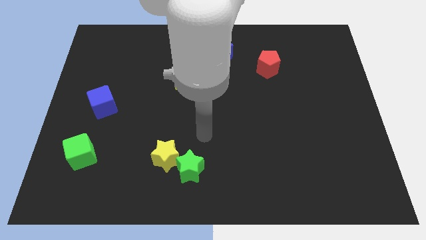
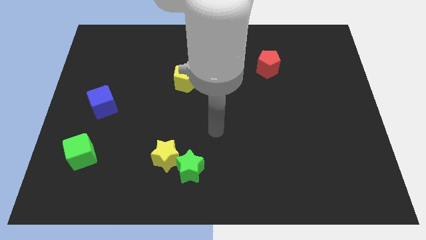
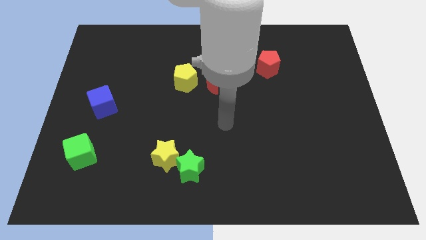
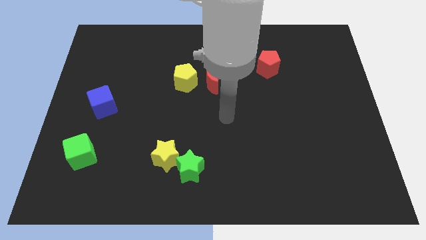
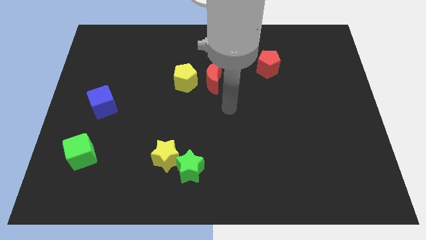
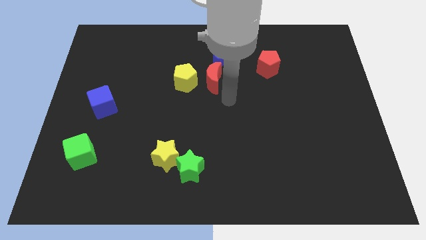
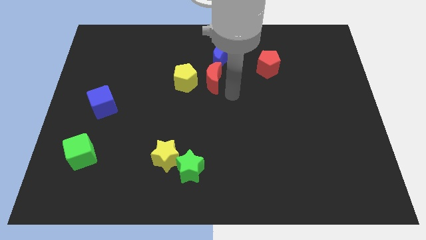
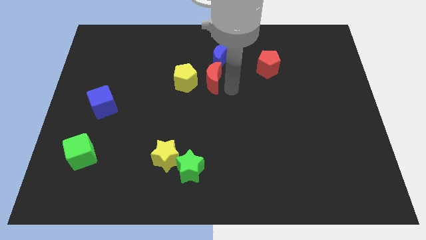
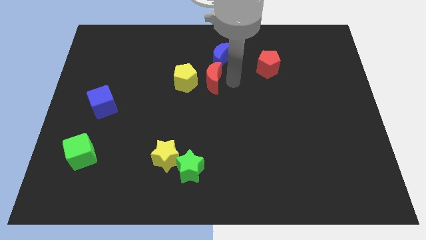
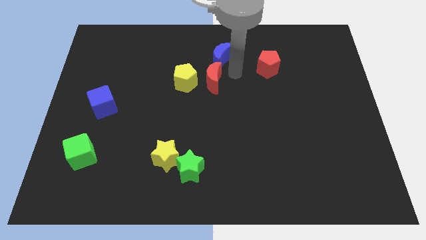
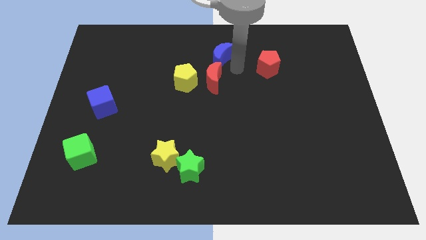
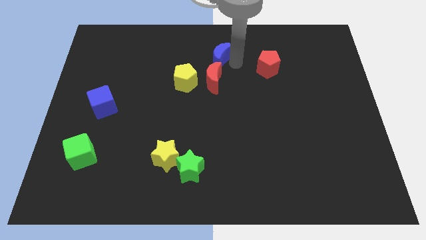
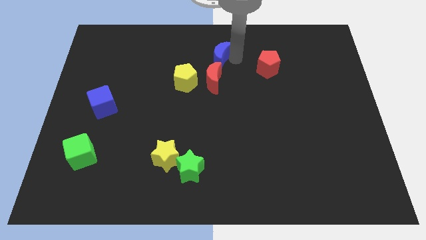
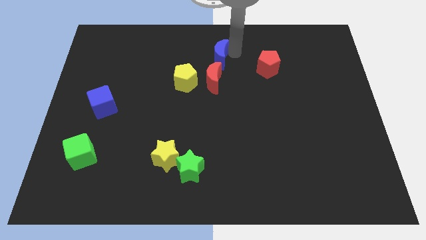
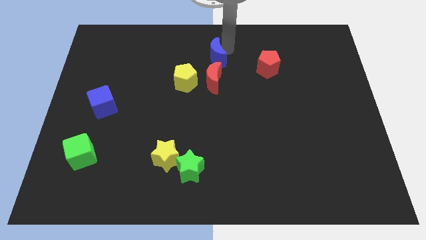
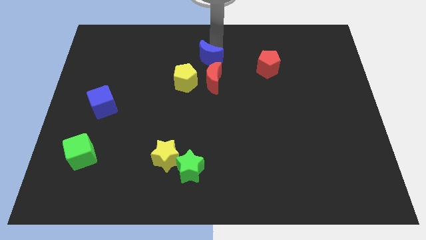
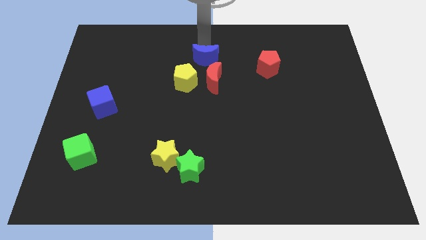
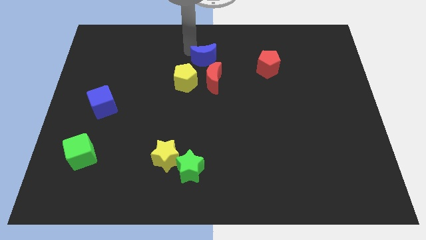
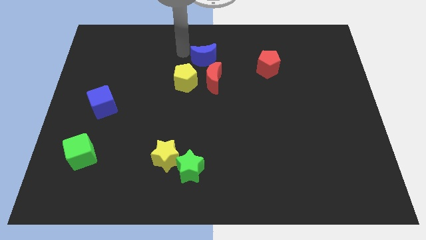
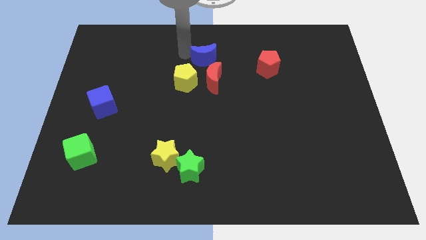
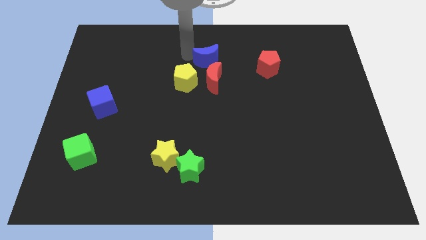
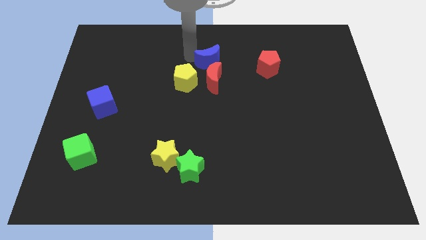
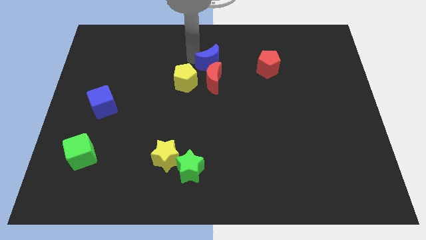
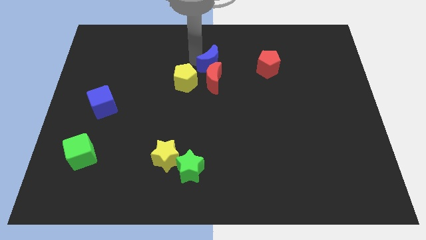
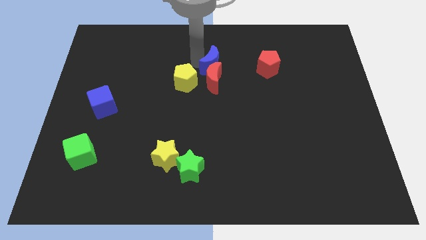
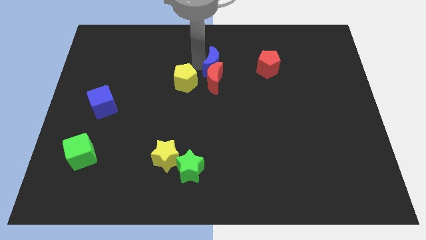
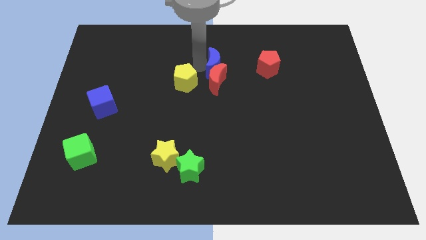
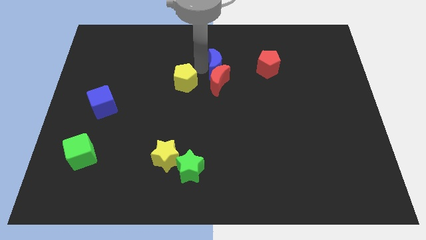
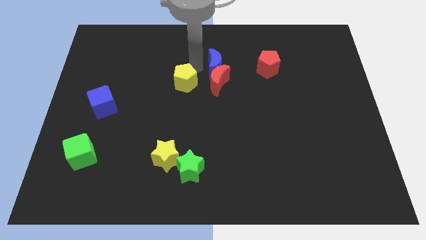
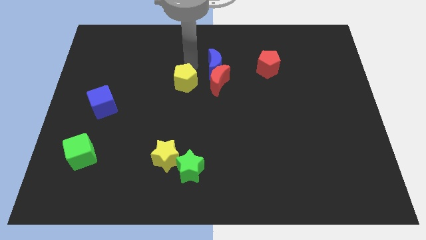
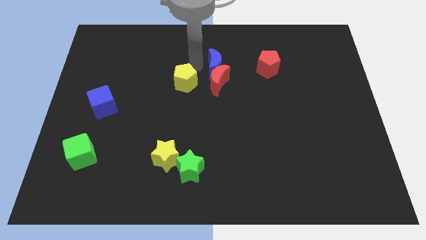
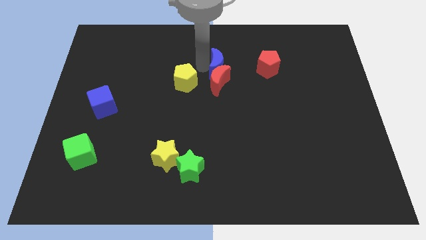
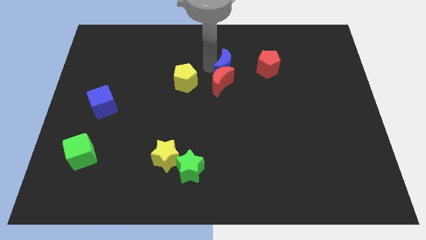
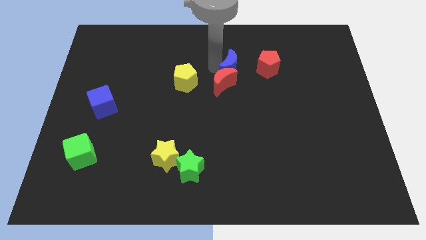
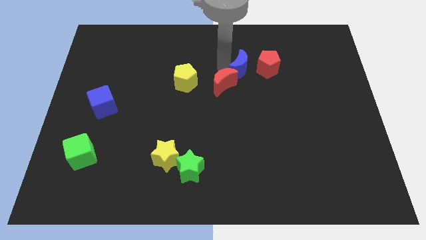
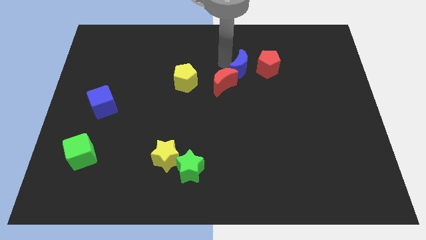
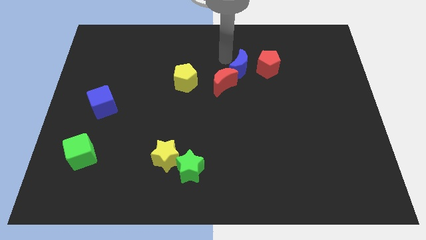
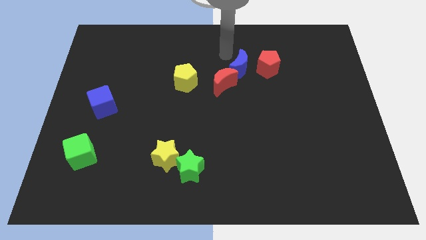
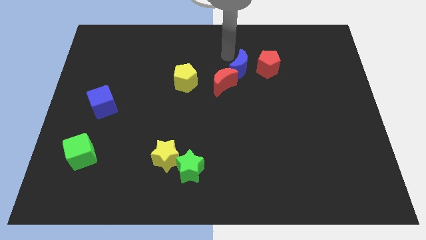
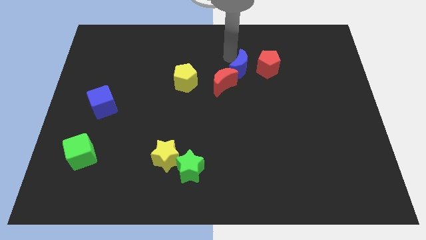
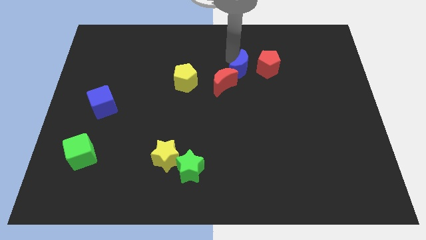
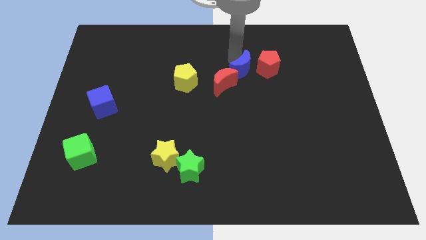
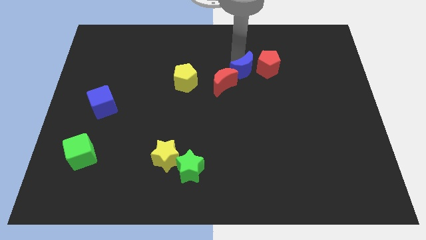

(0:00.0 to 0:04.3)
slide the blue moon somewhat down and right

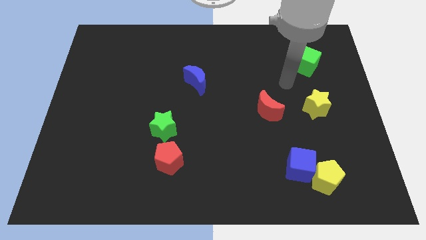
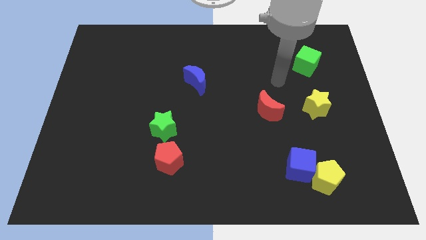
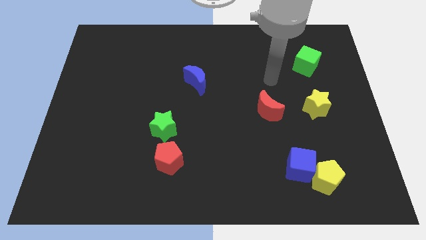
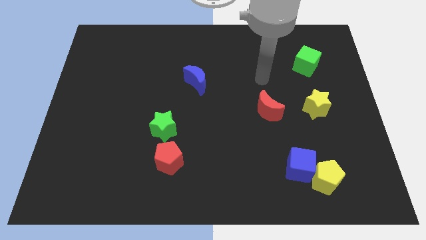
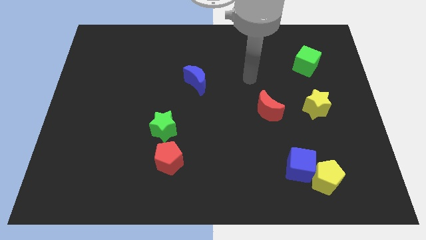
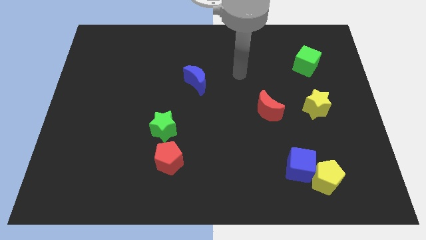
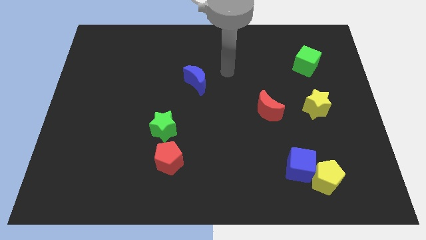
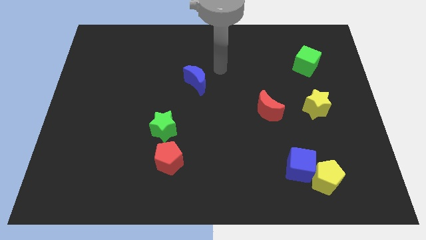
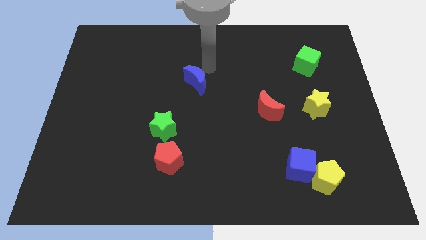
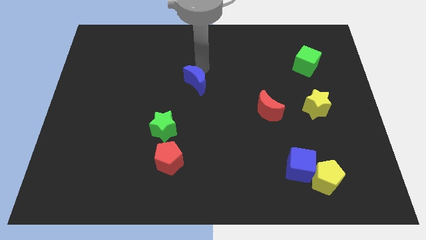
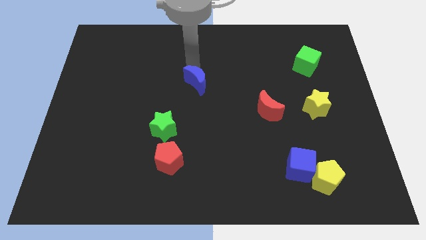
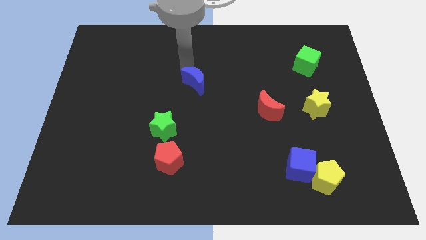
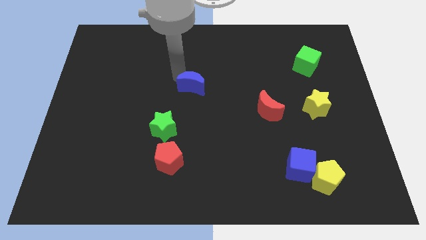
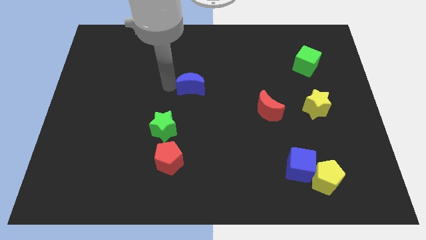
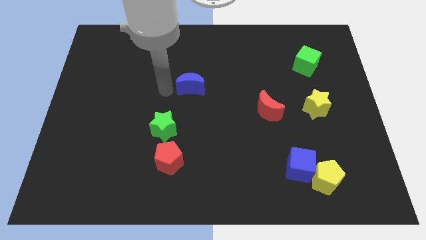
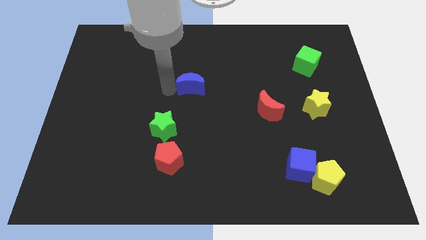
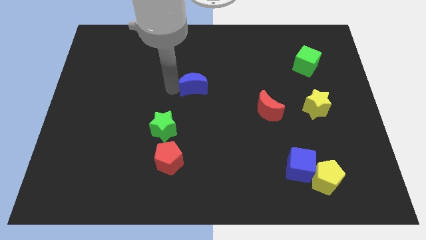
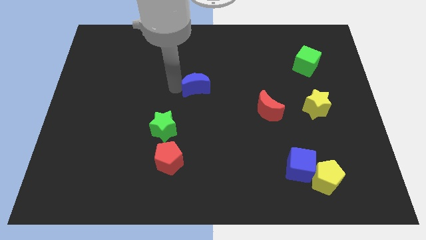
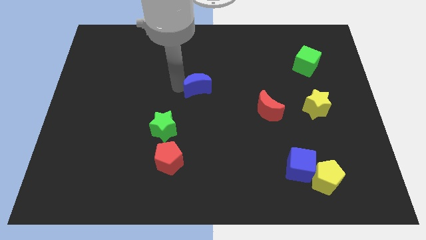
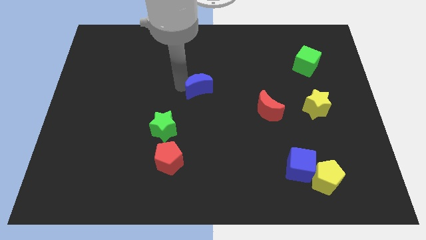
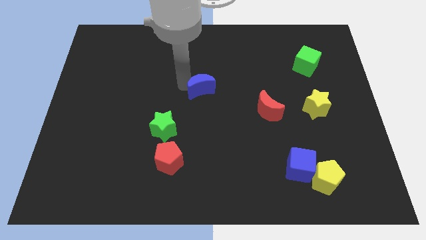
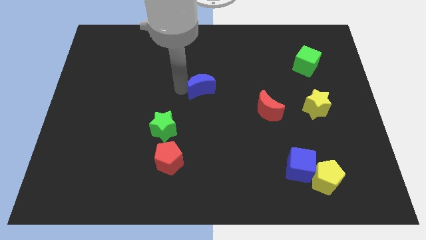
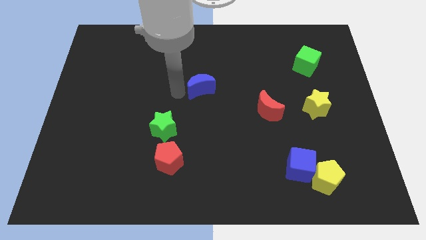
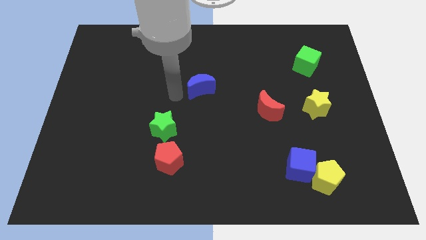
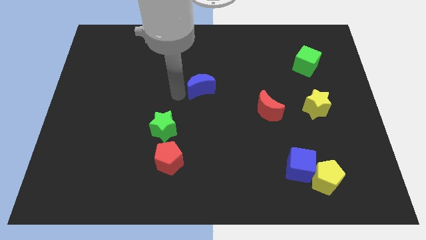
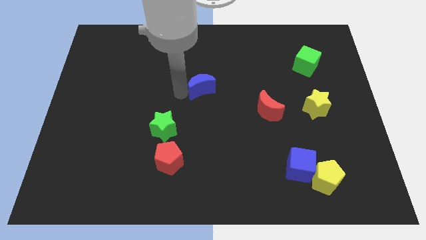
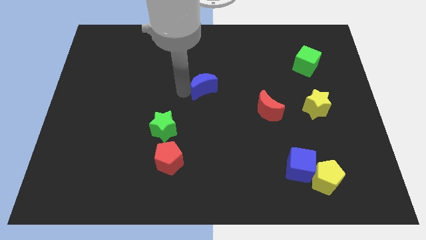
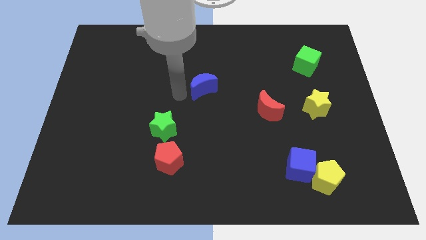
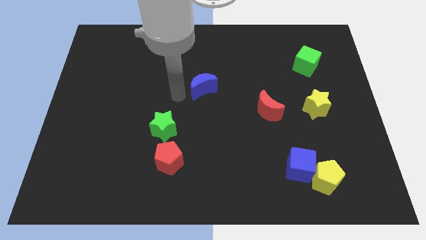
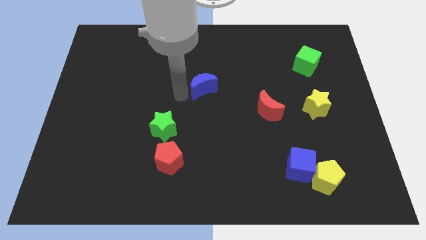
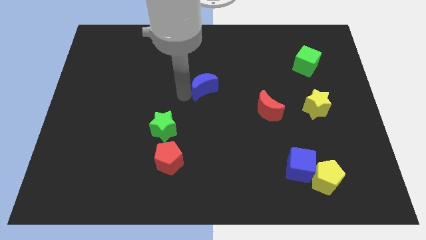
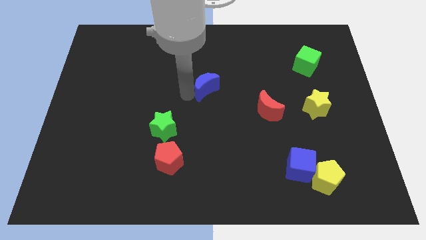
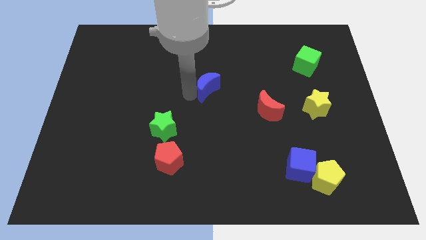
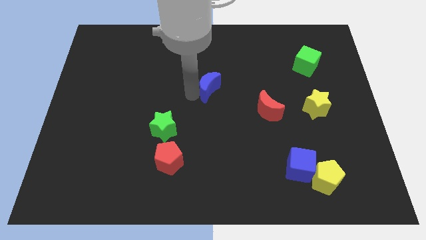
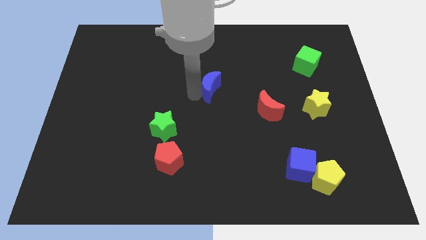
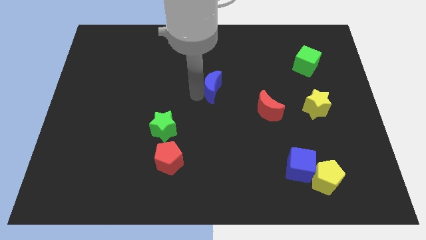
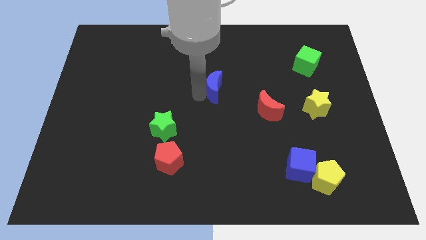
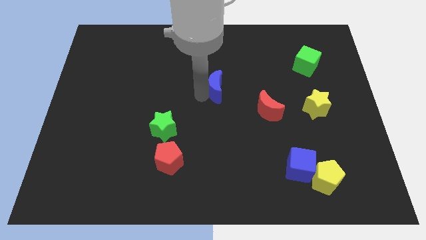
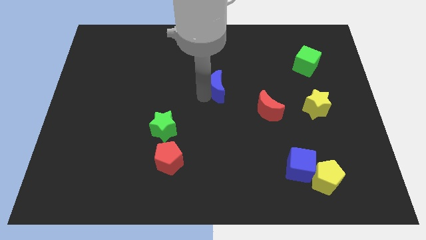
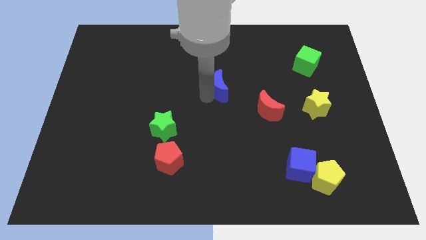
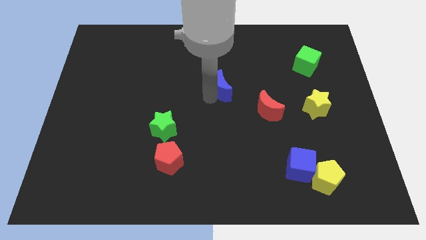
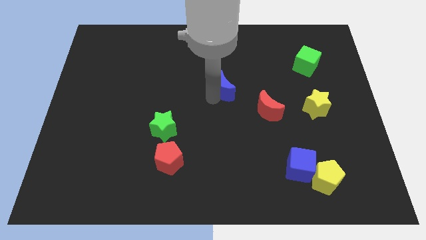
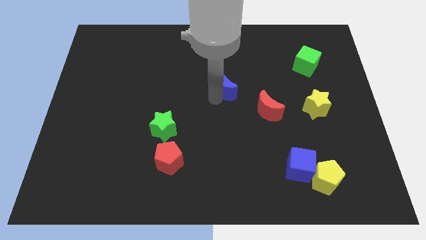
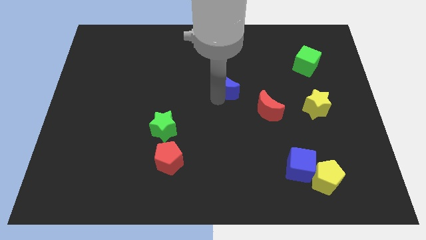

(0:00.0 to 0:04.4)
slide the blue moon to the right somewhat
